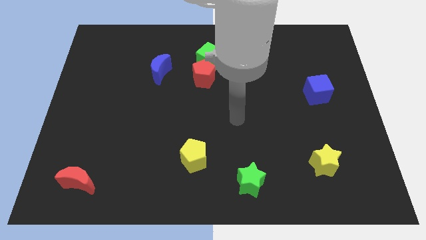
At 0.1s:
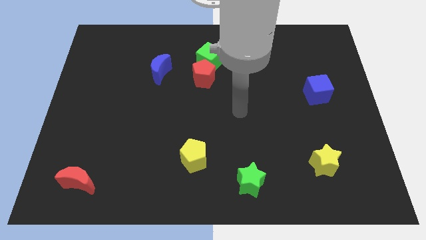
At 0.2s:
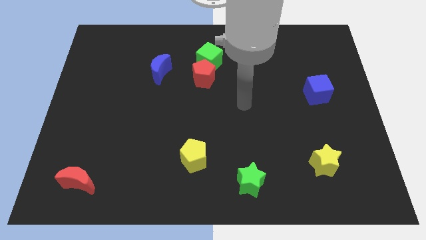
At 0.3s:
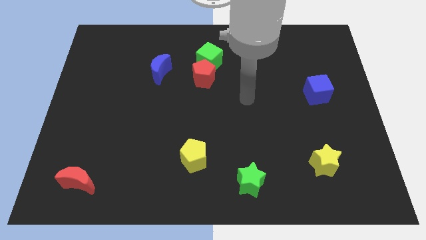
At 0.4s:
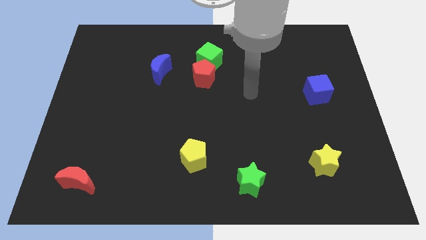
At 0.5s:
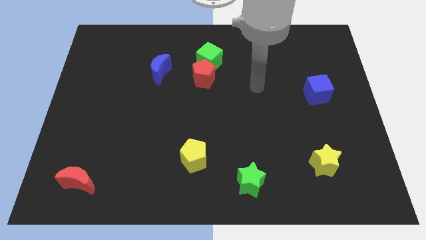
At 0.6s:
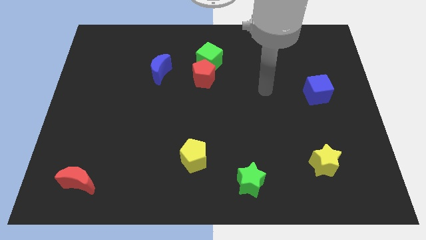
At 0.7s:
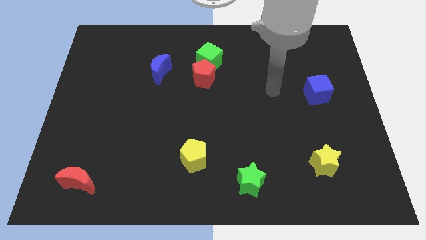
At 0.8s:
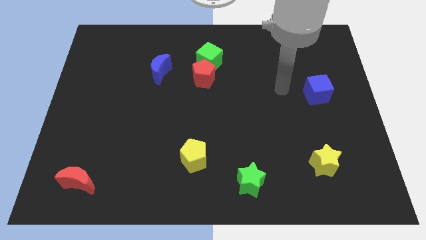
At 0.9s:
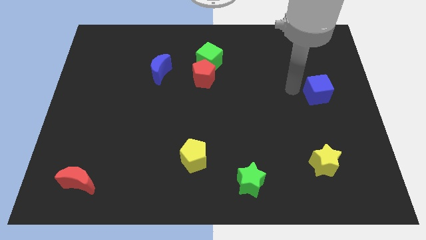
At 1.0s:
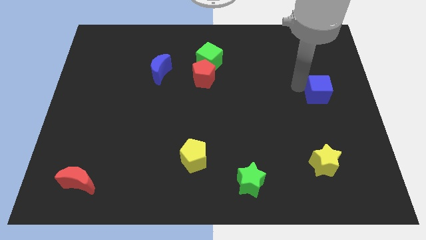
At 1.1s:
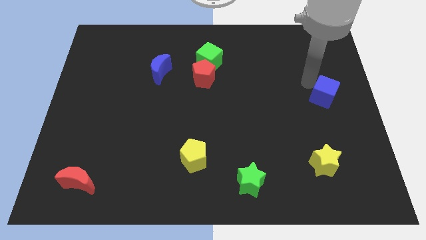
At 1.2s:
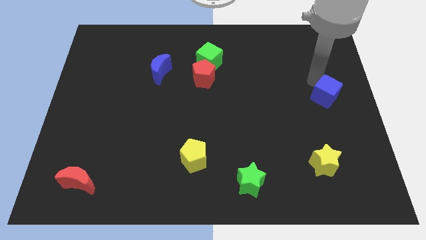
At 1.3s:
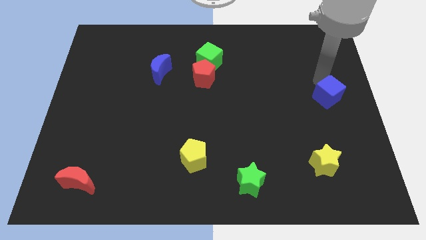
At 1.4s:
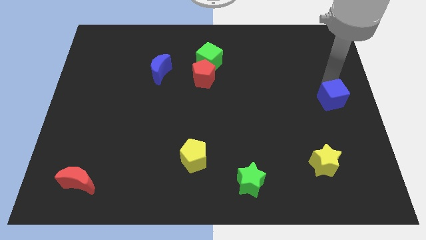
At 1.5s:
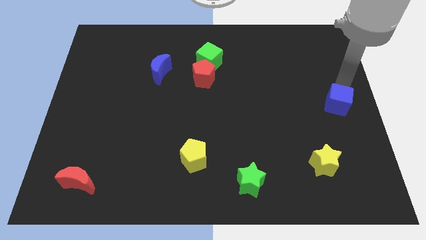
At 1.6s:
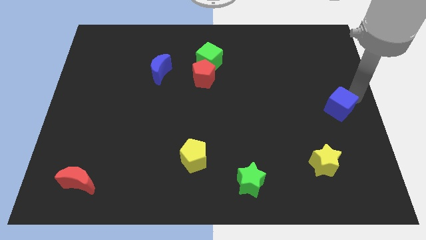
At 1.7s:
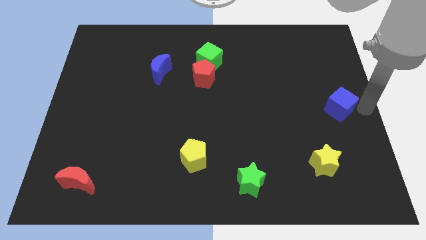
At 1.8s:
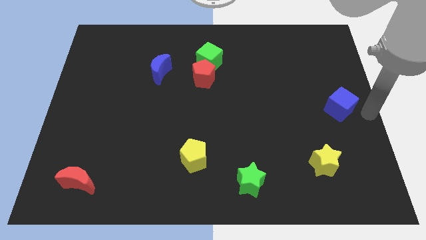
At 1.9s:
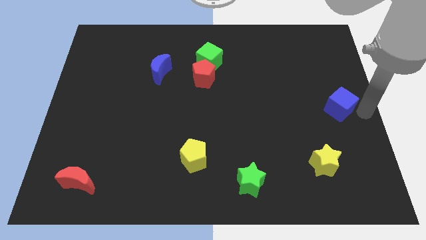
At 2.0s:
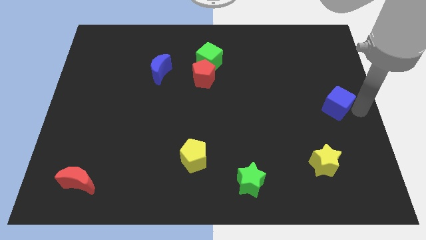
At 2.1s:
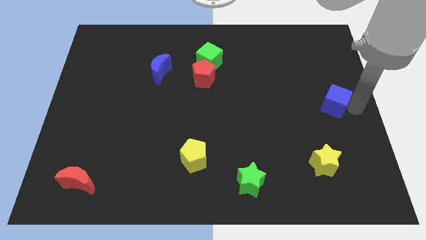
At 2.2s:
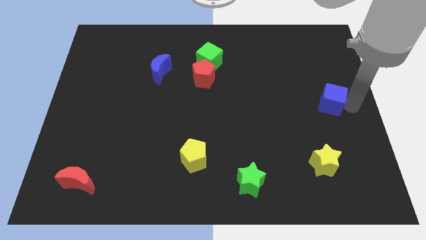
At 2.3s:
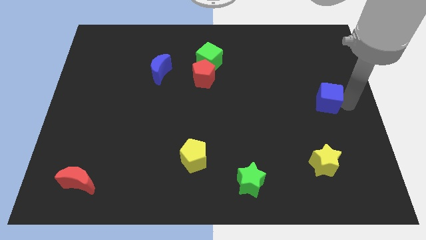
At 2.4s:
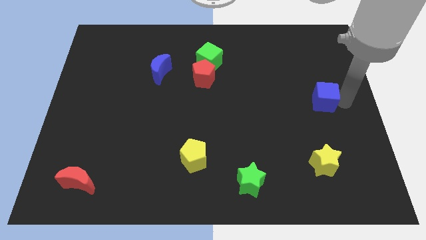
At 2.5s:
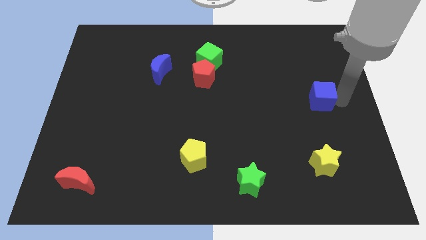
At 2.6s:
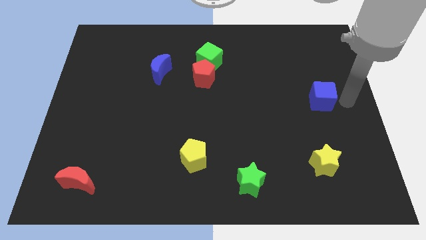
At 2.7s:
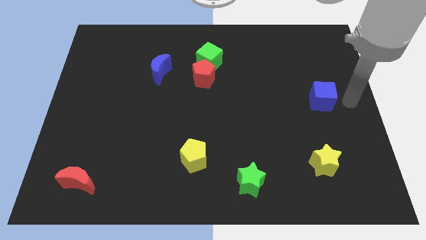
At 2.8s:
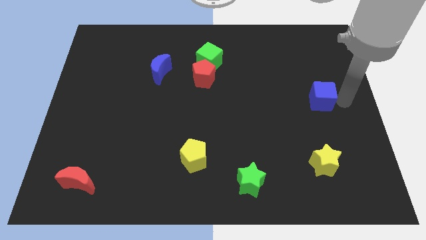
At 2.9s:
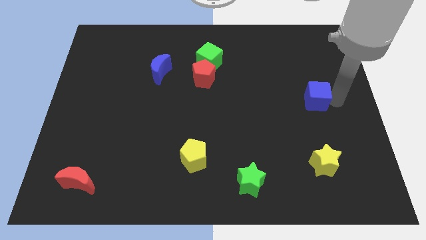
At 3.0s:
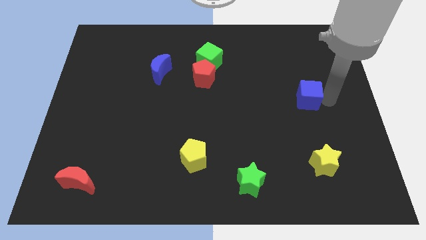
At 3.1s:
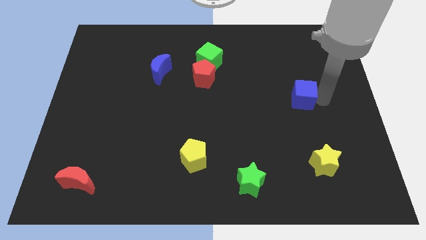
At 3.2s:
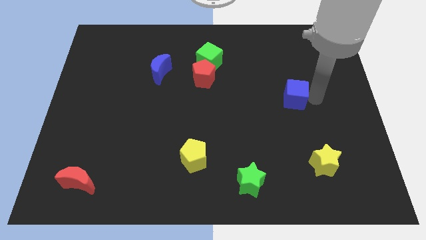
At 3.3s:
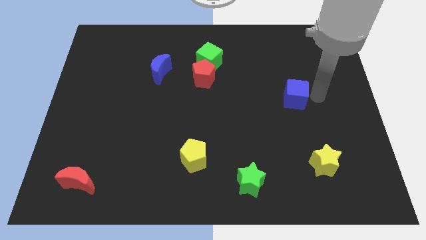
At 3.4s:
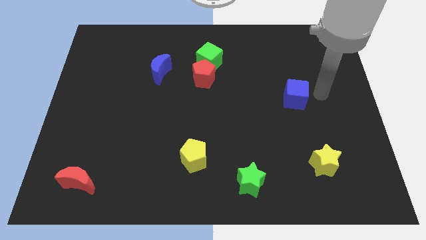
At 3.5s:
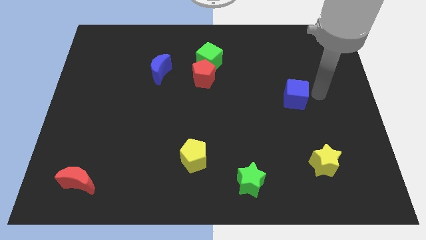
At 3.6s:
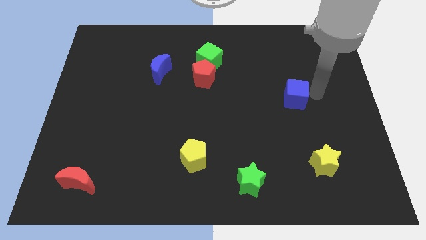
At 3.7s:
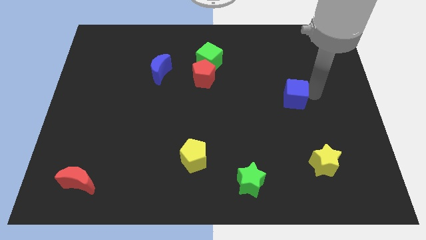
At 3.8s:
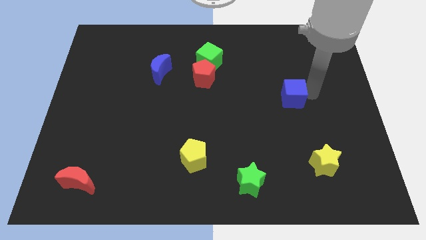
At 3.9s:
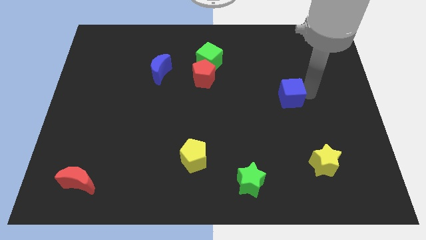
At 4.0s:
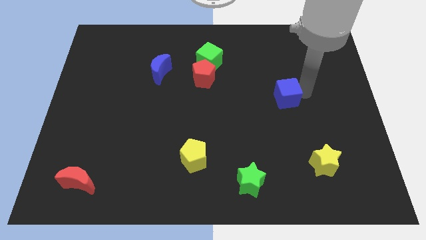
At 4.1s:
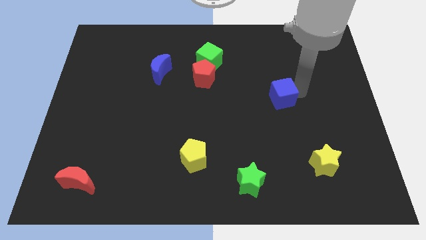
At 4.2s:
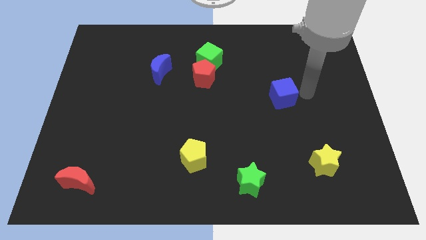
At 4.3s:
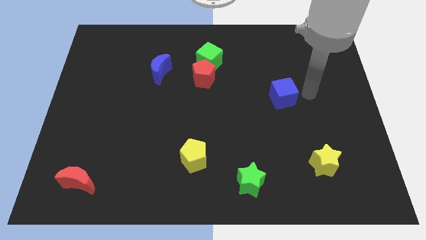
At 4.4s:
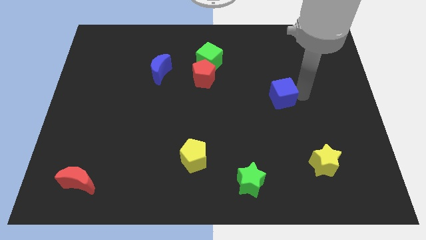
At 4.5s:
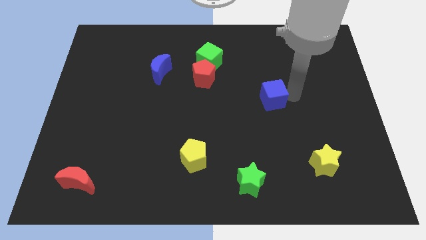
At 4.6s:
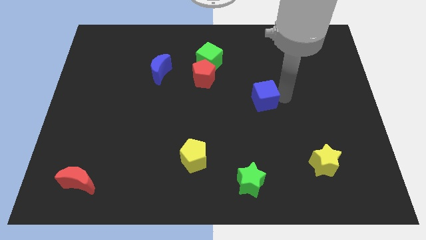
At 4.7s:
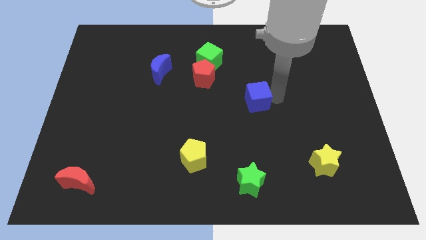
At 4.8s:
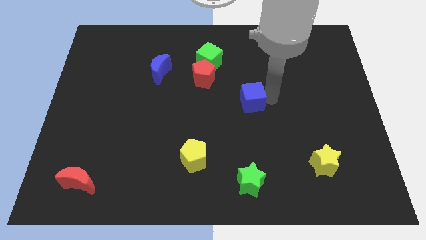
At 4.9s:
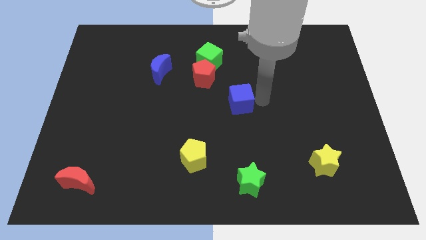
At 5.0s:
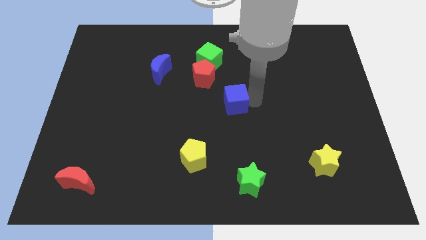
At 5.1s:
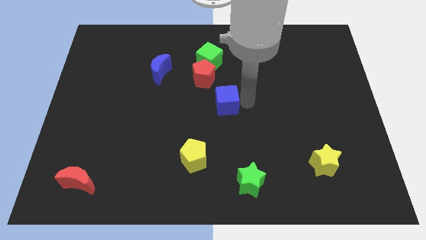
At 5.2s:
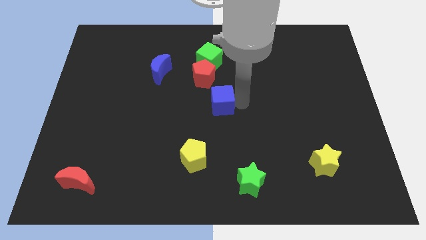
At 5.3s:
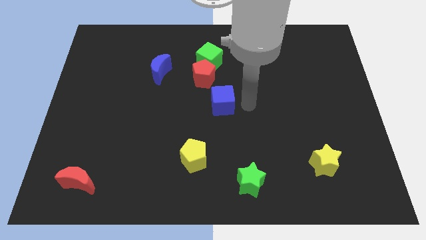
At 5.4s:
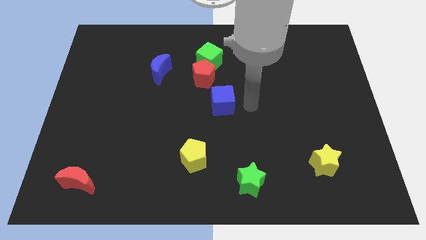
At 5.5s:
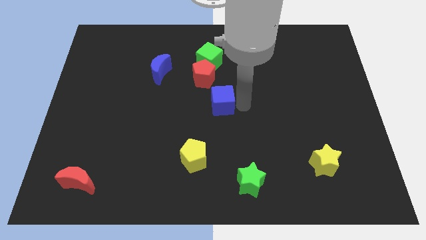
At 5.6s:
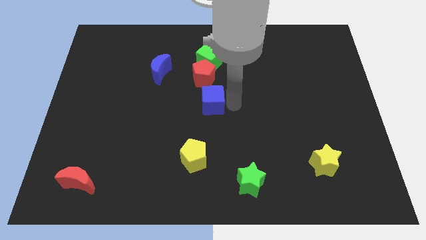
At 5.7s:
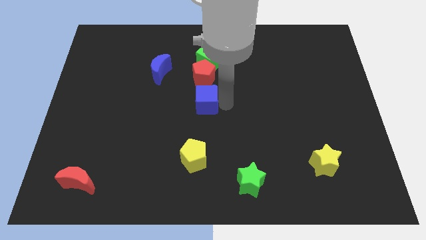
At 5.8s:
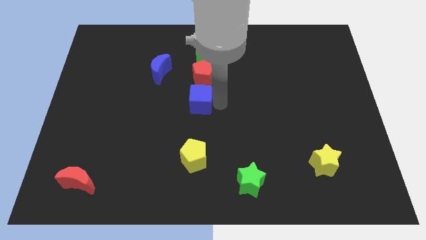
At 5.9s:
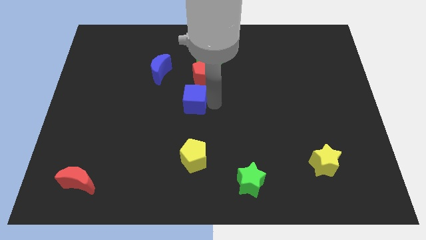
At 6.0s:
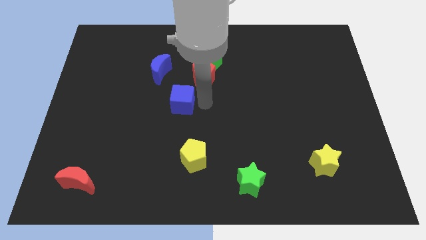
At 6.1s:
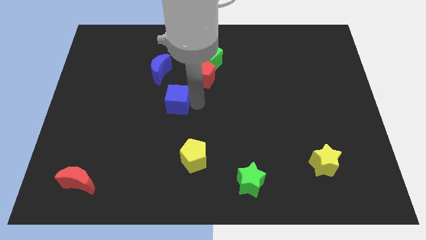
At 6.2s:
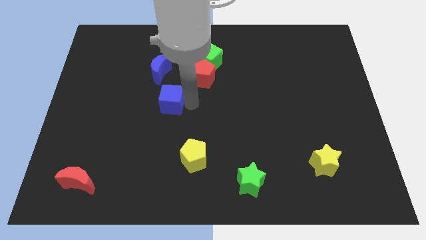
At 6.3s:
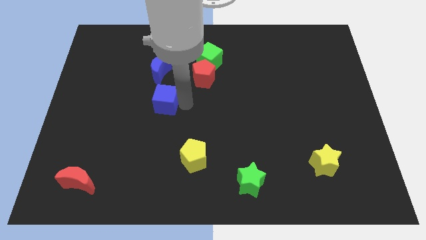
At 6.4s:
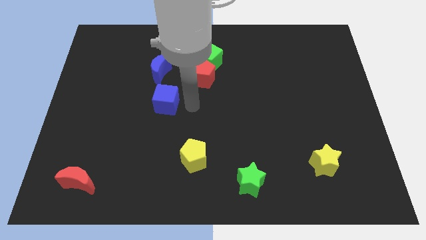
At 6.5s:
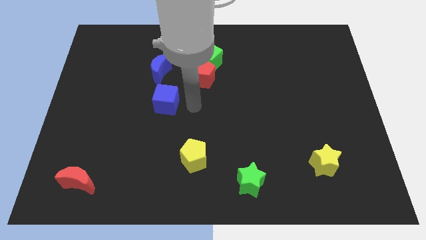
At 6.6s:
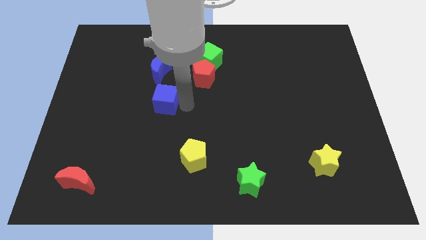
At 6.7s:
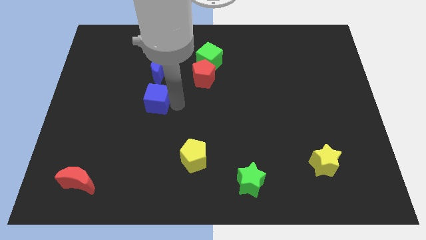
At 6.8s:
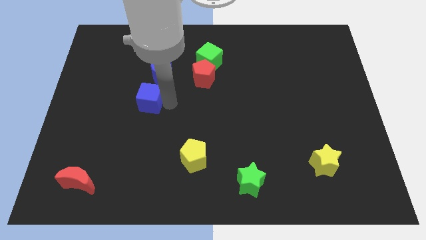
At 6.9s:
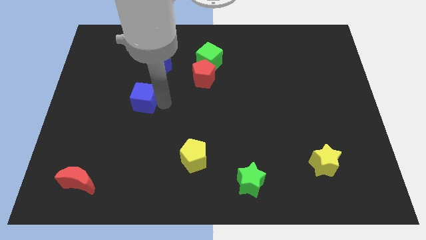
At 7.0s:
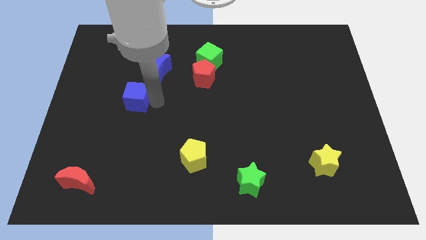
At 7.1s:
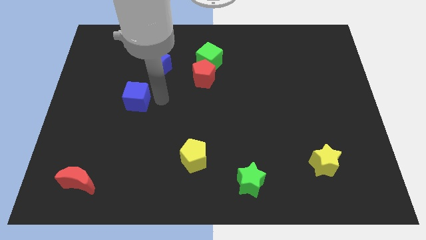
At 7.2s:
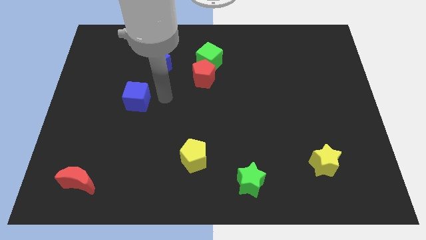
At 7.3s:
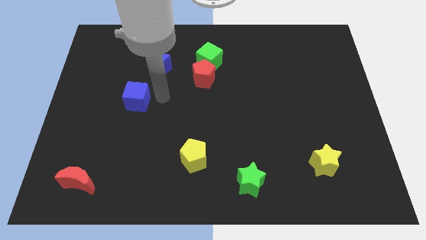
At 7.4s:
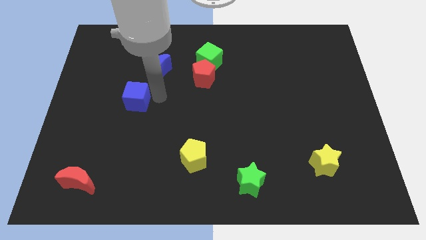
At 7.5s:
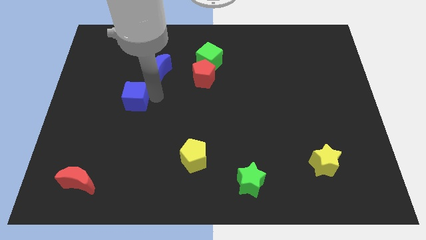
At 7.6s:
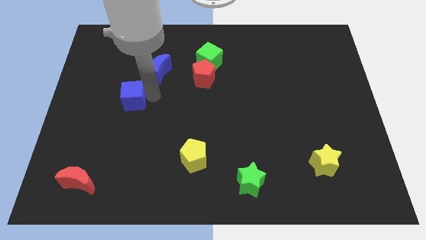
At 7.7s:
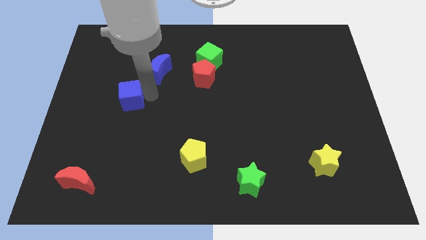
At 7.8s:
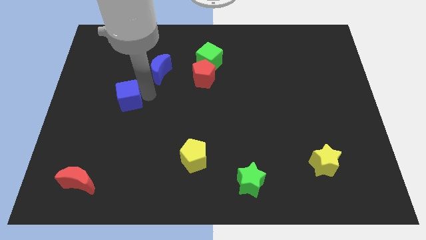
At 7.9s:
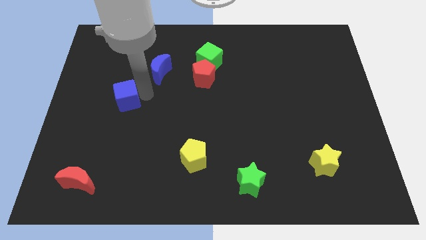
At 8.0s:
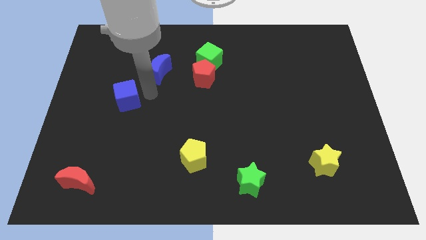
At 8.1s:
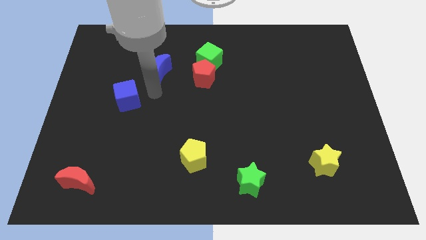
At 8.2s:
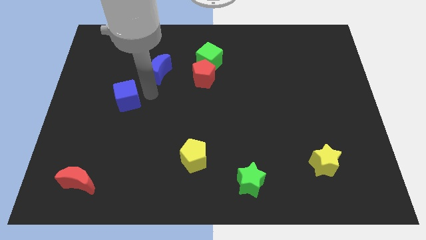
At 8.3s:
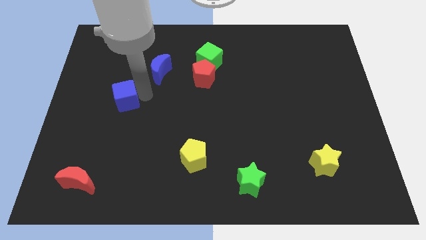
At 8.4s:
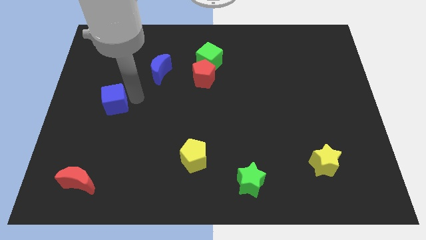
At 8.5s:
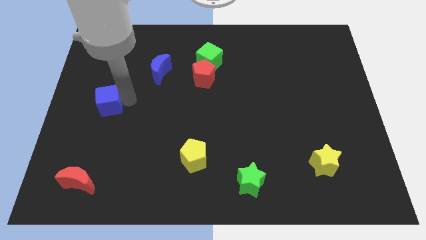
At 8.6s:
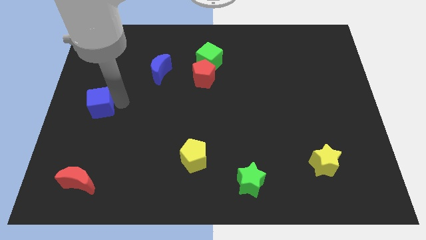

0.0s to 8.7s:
put the blue cube to the left side
